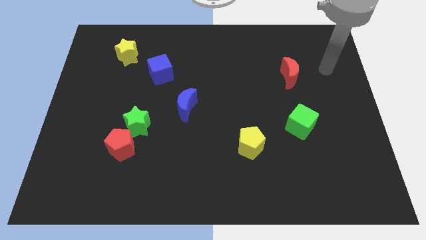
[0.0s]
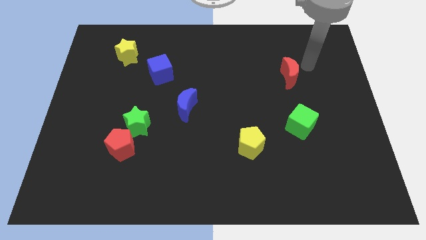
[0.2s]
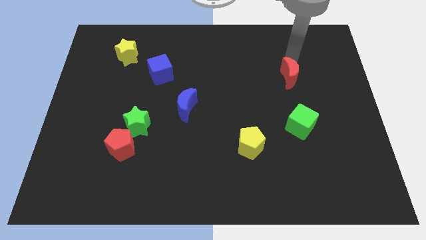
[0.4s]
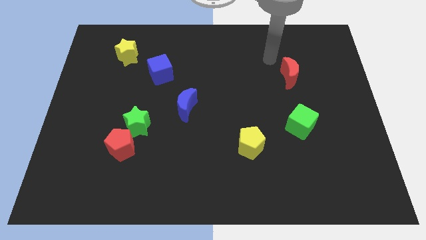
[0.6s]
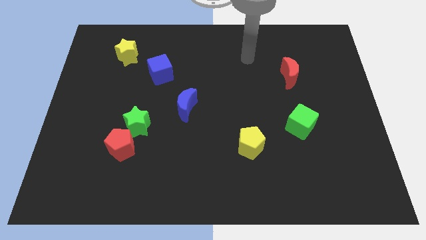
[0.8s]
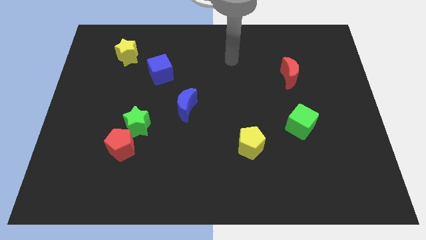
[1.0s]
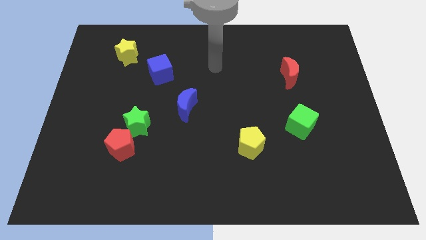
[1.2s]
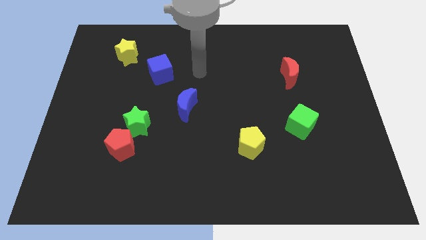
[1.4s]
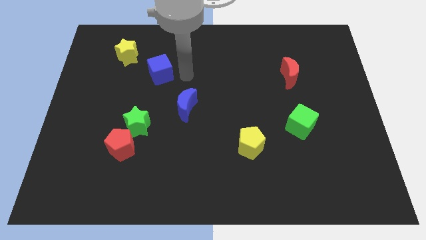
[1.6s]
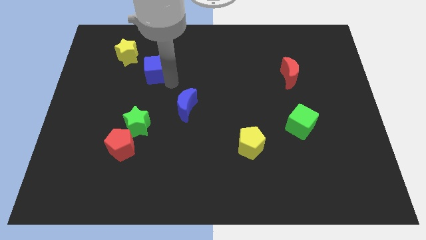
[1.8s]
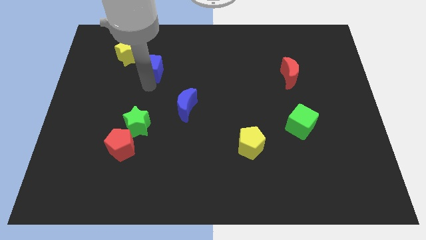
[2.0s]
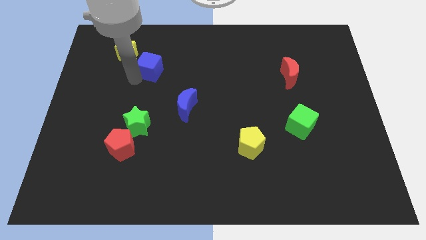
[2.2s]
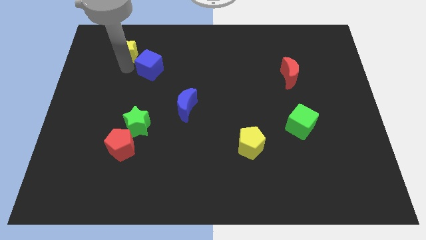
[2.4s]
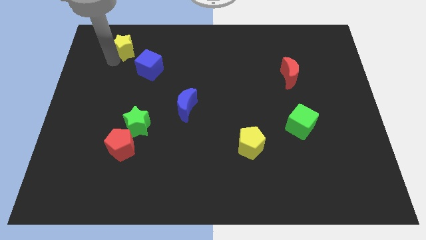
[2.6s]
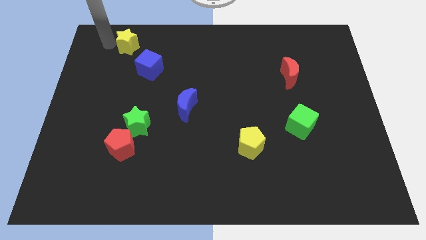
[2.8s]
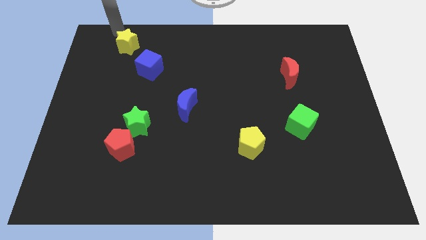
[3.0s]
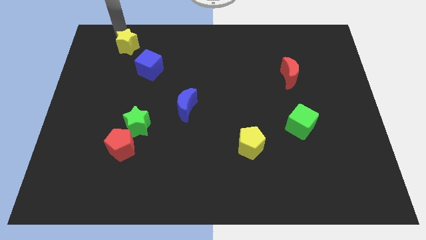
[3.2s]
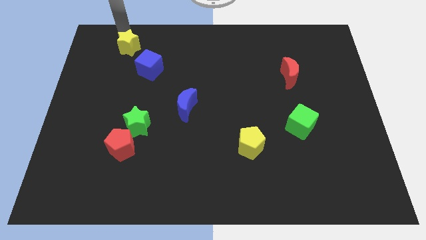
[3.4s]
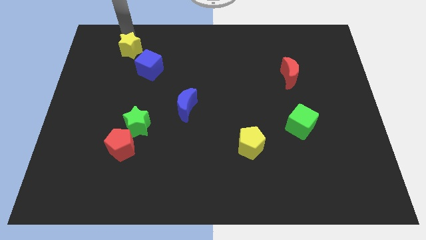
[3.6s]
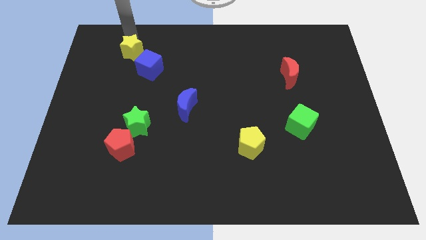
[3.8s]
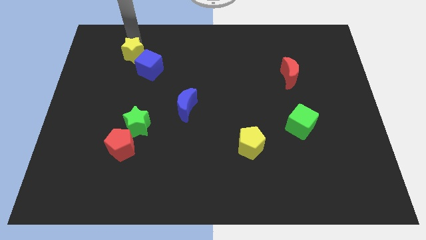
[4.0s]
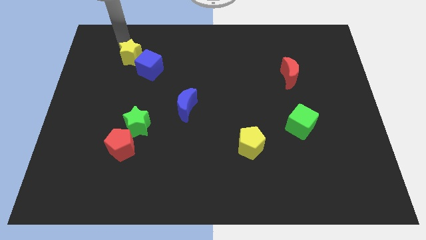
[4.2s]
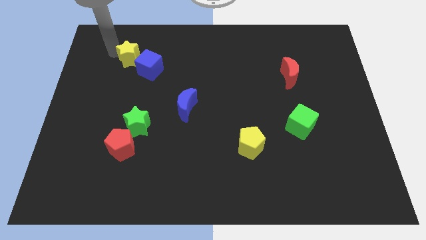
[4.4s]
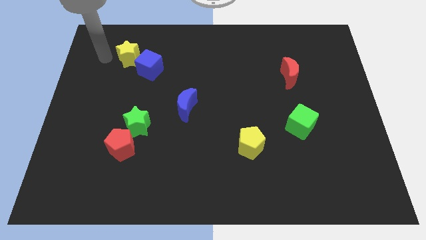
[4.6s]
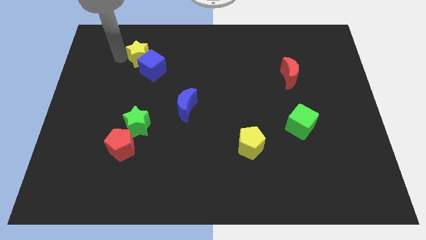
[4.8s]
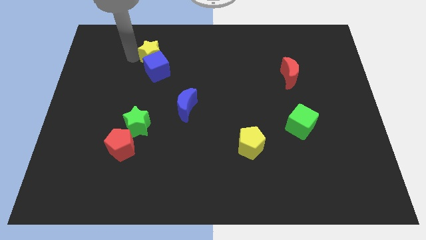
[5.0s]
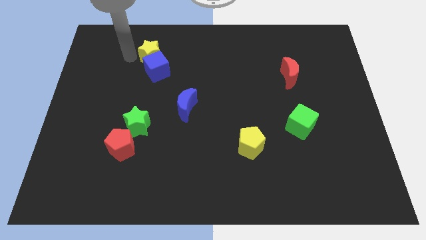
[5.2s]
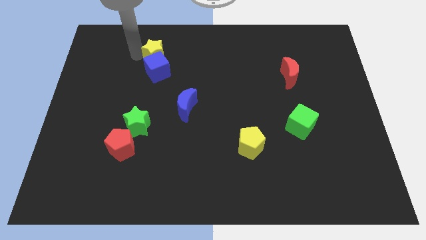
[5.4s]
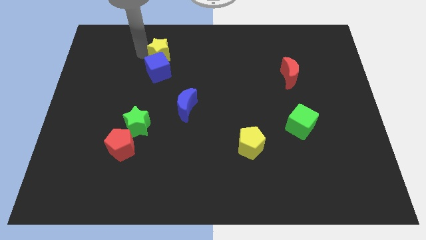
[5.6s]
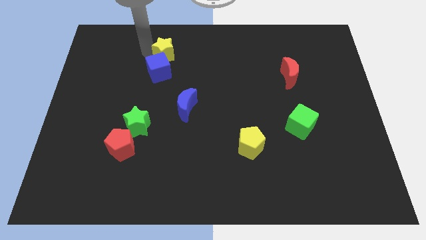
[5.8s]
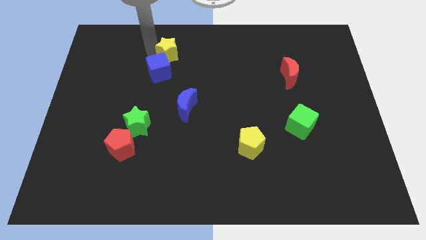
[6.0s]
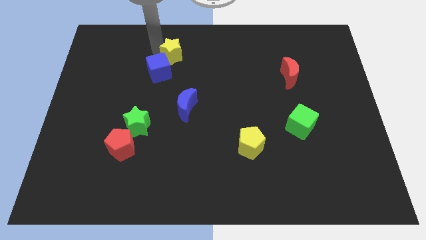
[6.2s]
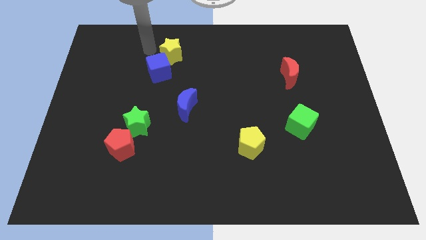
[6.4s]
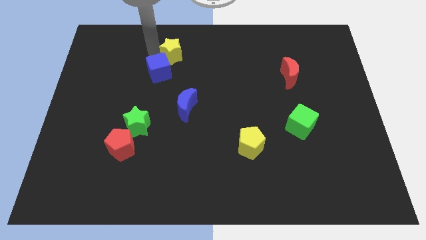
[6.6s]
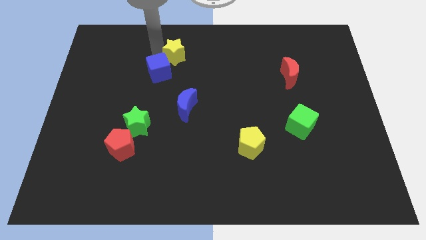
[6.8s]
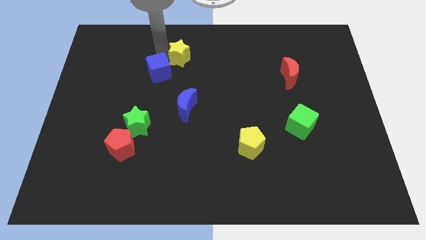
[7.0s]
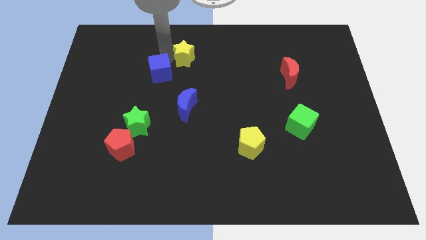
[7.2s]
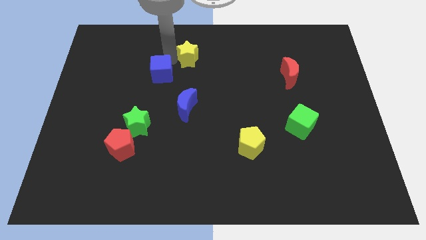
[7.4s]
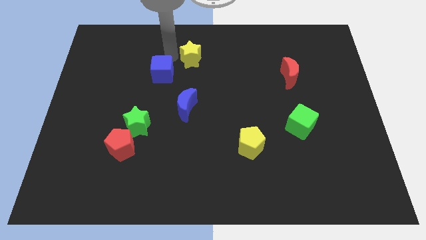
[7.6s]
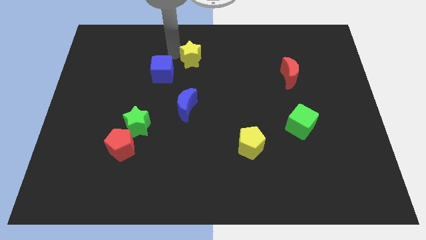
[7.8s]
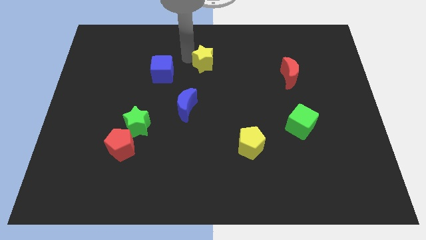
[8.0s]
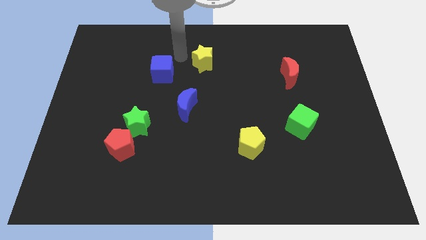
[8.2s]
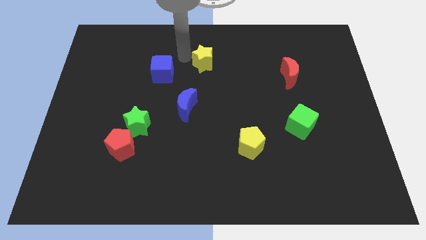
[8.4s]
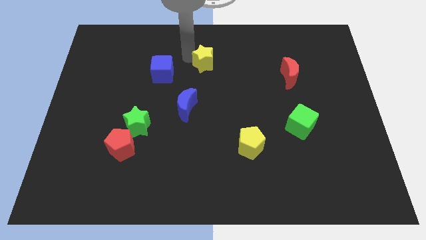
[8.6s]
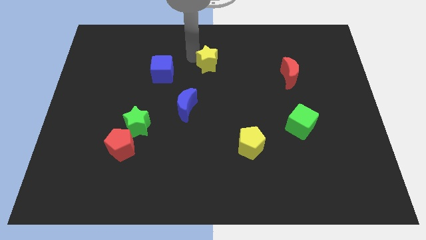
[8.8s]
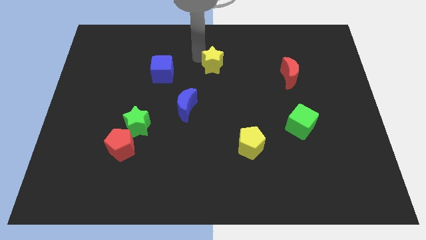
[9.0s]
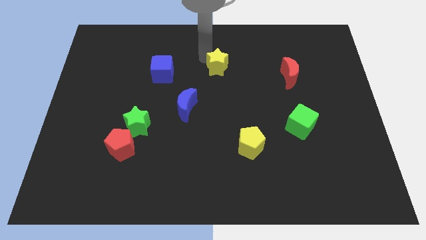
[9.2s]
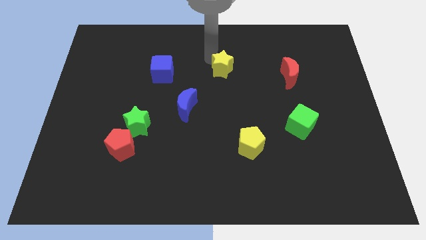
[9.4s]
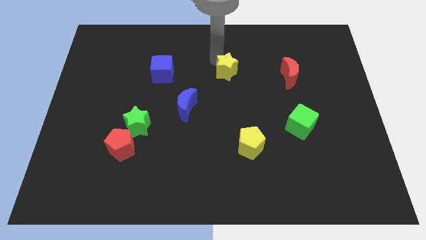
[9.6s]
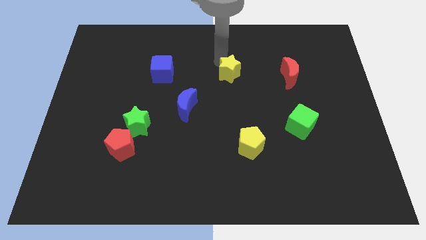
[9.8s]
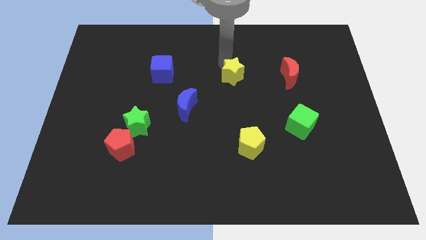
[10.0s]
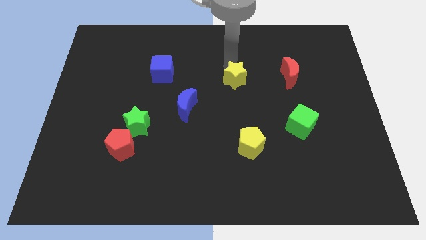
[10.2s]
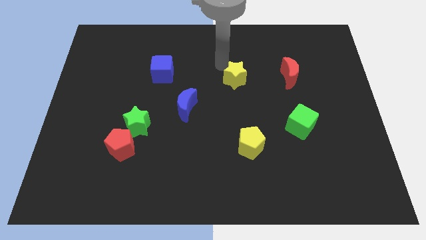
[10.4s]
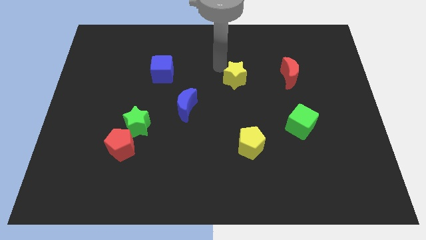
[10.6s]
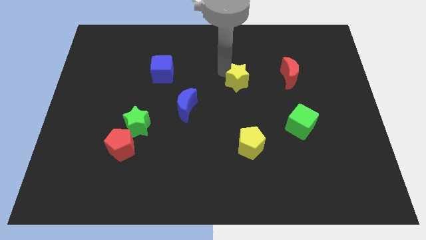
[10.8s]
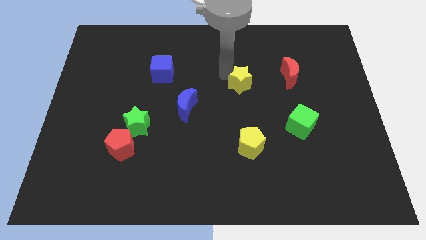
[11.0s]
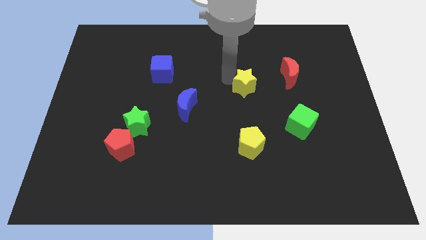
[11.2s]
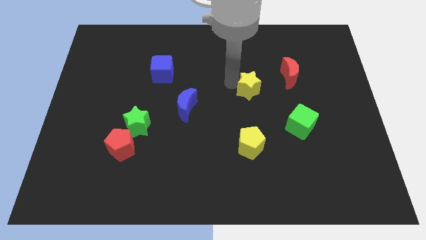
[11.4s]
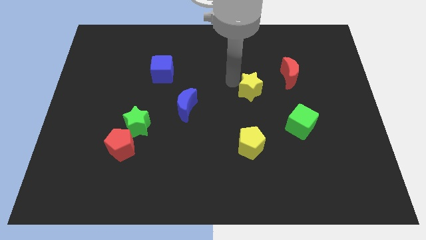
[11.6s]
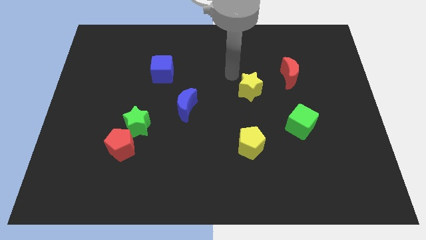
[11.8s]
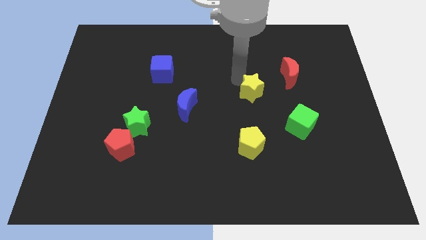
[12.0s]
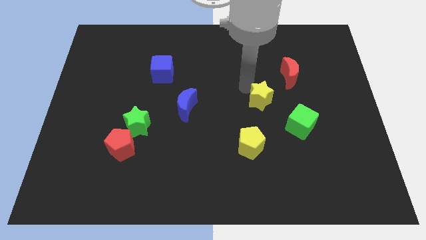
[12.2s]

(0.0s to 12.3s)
slide the yellow star to the top left side of the green cube

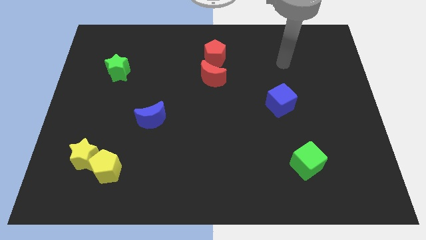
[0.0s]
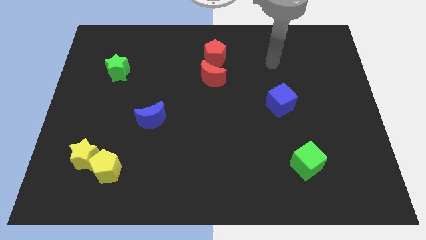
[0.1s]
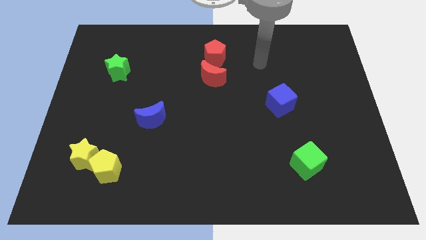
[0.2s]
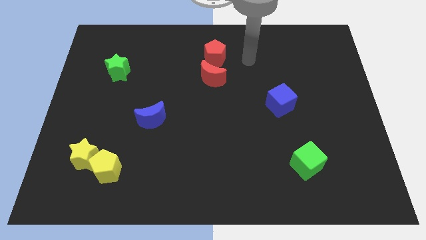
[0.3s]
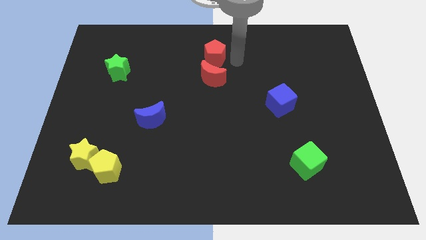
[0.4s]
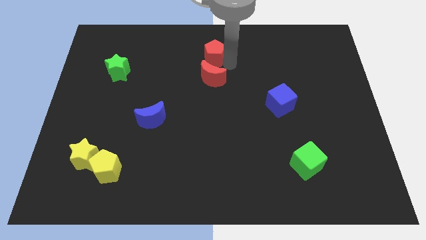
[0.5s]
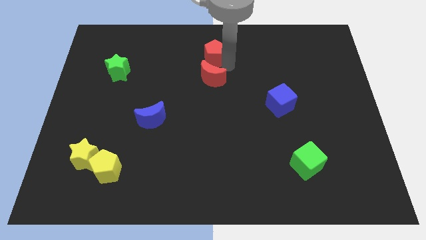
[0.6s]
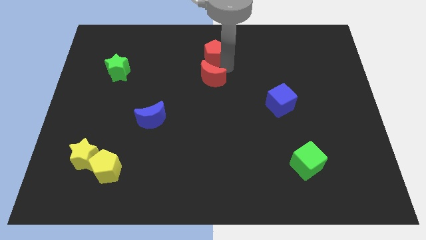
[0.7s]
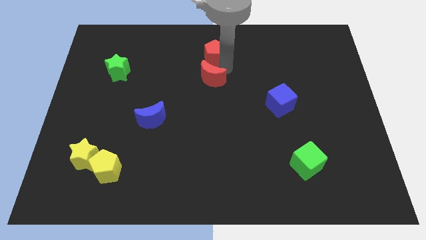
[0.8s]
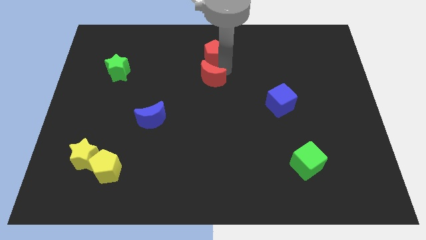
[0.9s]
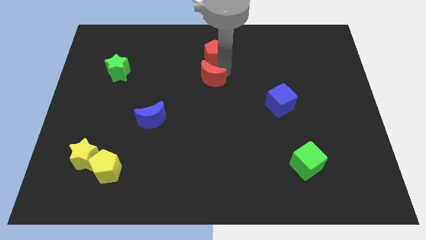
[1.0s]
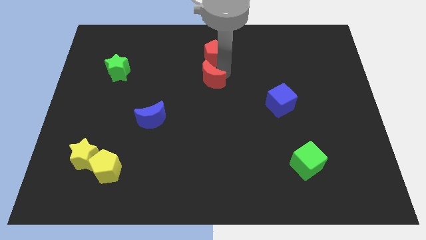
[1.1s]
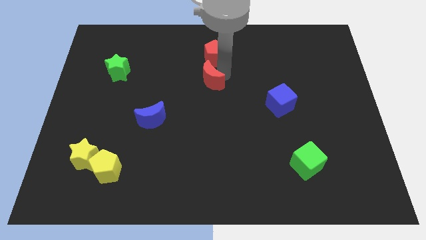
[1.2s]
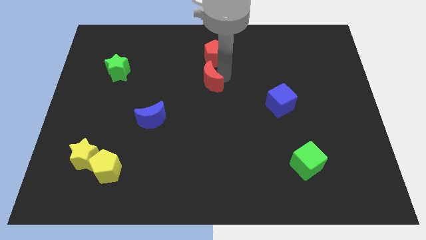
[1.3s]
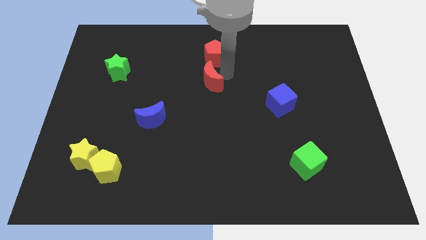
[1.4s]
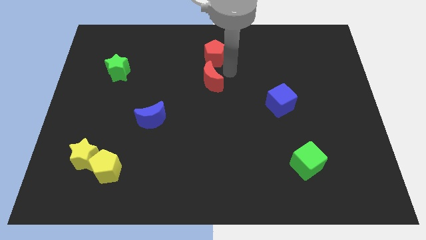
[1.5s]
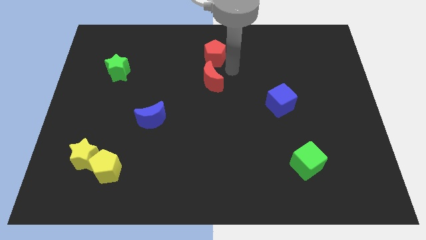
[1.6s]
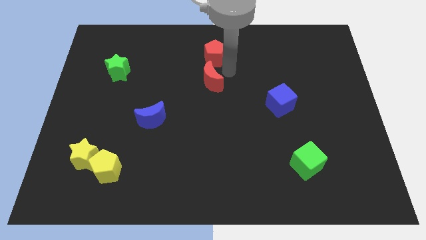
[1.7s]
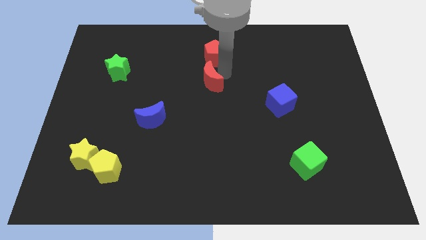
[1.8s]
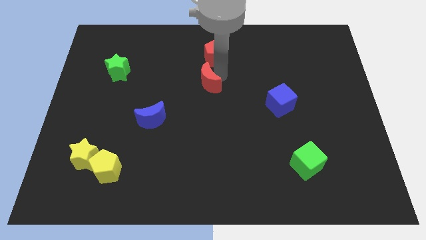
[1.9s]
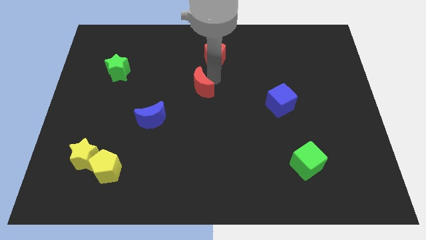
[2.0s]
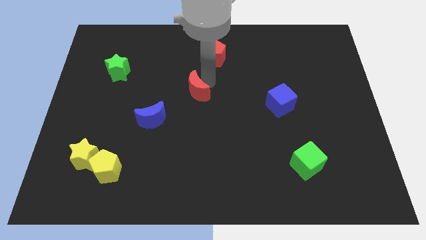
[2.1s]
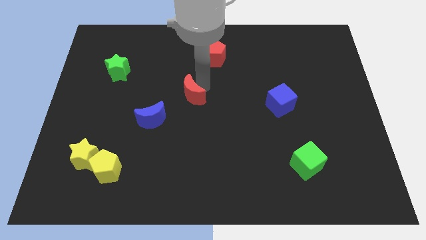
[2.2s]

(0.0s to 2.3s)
push the red moon to the top right side of the blue moon
